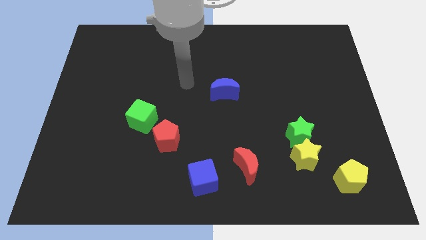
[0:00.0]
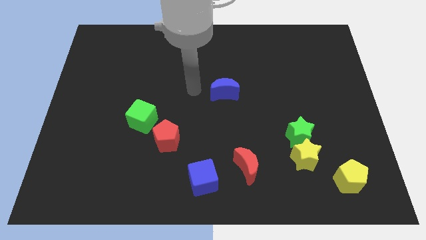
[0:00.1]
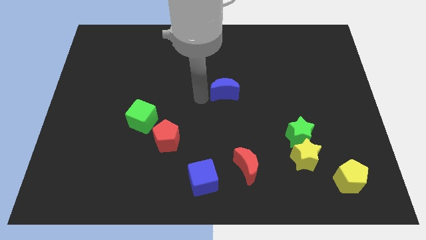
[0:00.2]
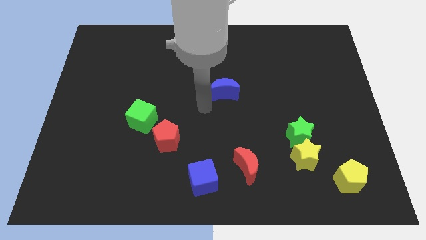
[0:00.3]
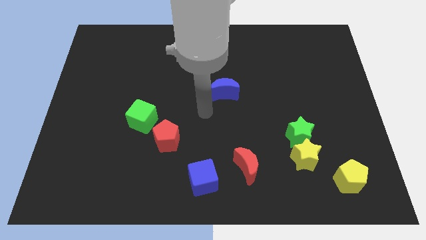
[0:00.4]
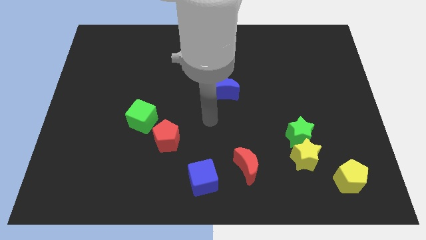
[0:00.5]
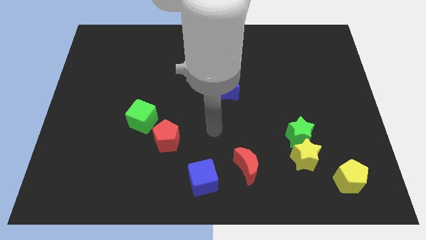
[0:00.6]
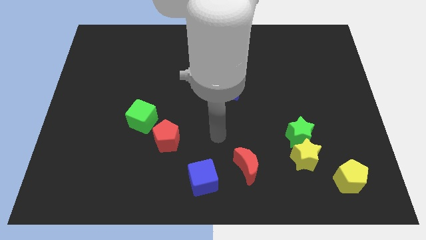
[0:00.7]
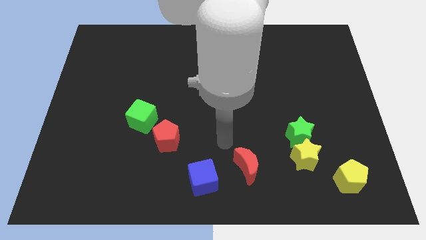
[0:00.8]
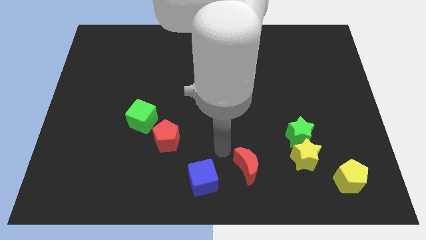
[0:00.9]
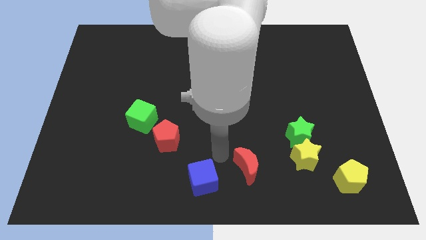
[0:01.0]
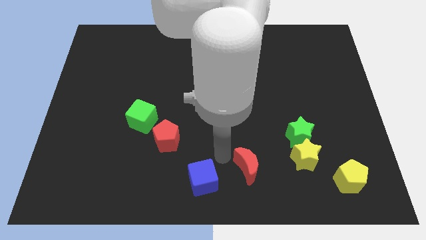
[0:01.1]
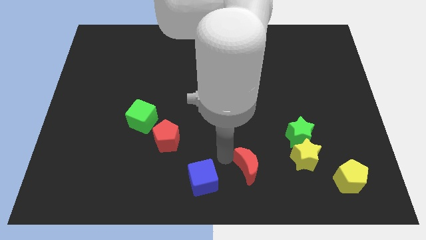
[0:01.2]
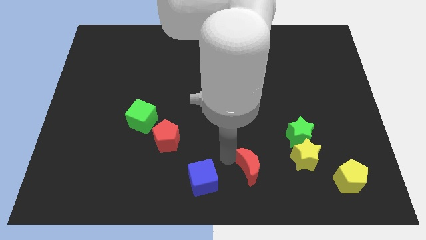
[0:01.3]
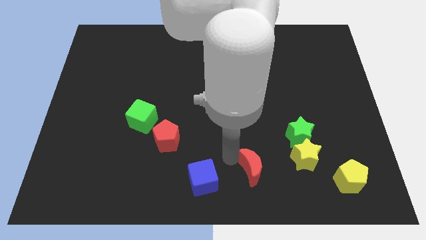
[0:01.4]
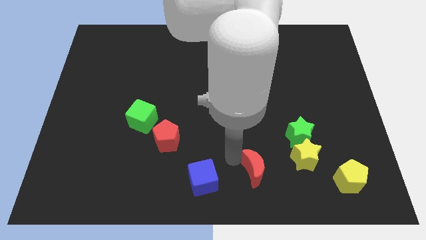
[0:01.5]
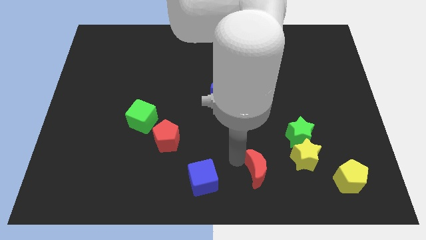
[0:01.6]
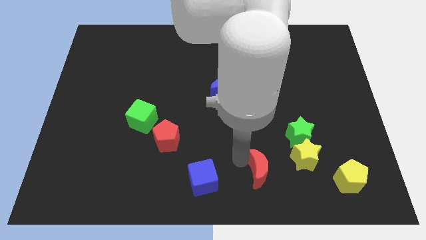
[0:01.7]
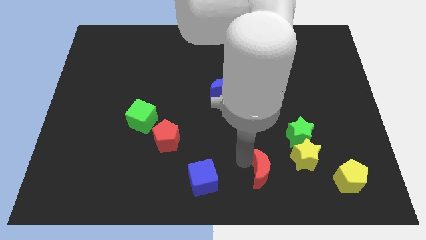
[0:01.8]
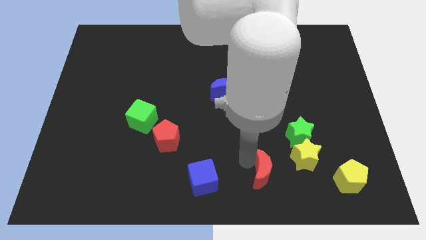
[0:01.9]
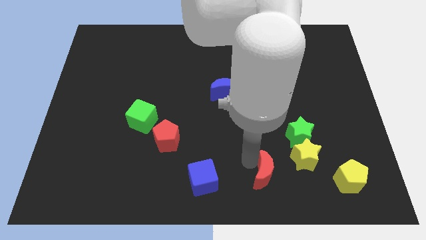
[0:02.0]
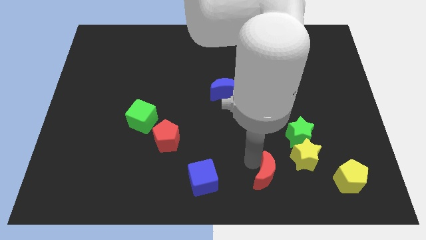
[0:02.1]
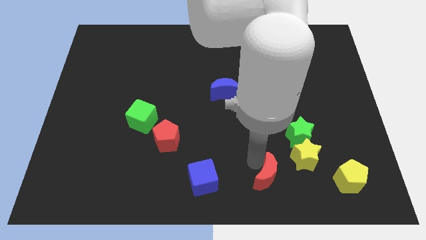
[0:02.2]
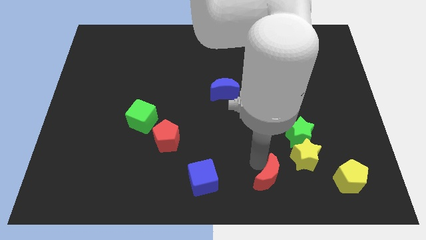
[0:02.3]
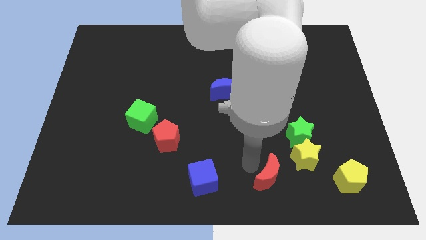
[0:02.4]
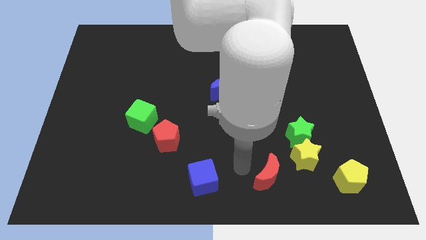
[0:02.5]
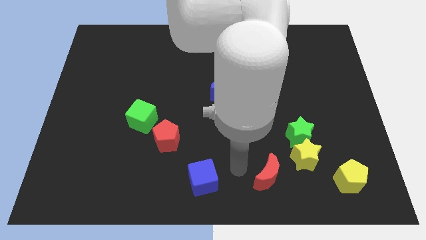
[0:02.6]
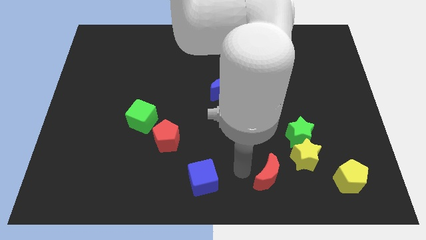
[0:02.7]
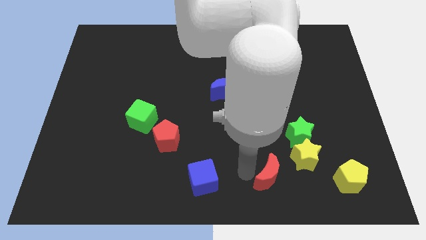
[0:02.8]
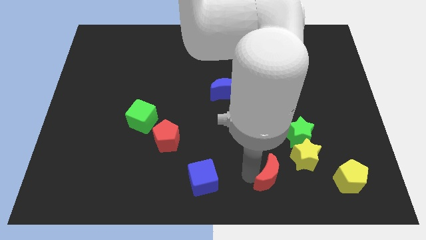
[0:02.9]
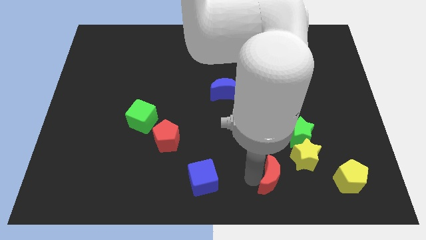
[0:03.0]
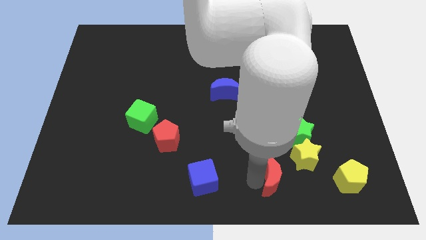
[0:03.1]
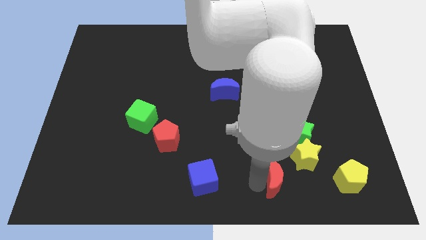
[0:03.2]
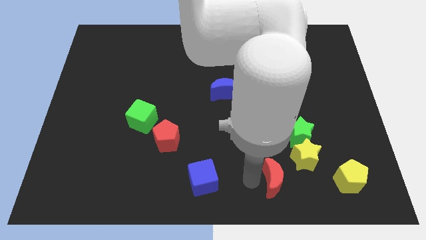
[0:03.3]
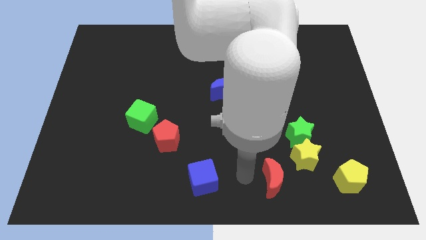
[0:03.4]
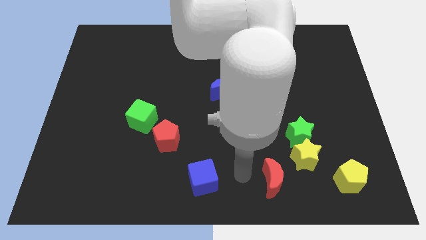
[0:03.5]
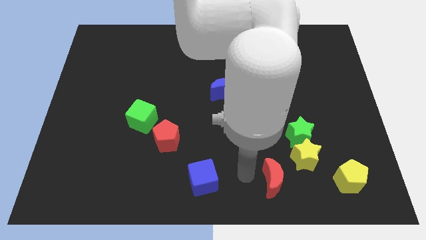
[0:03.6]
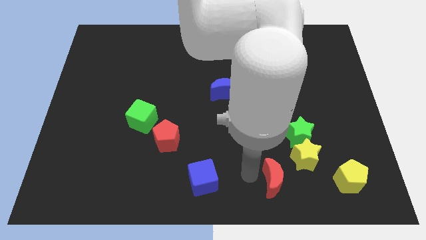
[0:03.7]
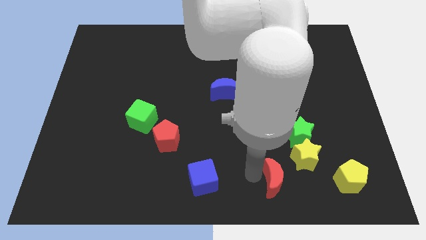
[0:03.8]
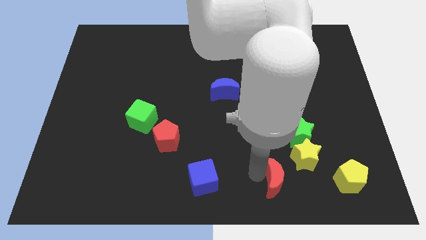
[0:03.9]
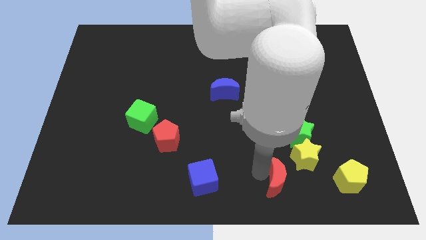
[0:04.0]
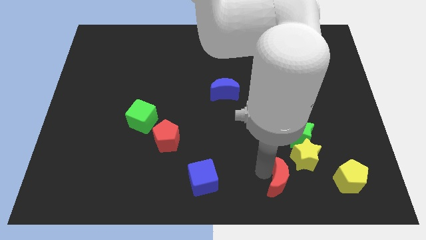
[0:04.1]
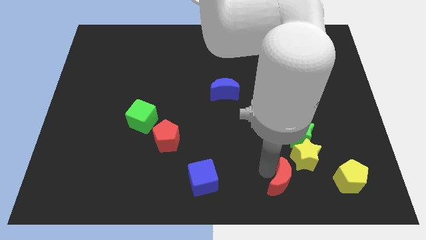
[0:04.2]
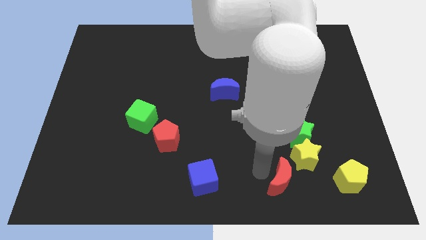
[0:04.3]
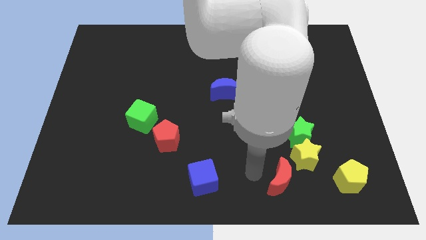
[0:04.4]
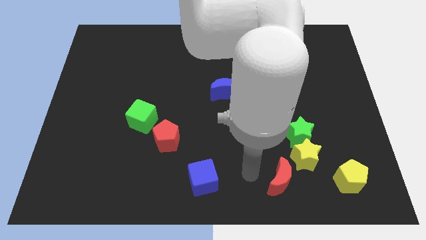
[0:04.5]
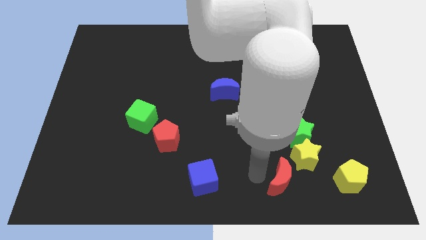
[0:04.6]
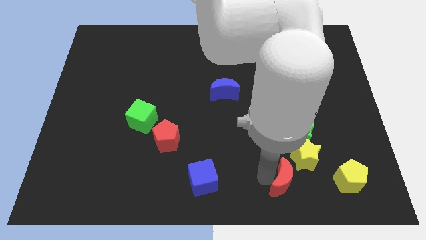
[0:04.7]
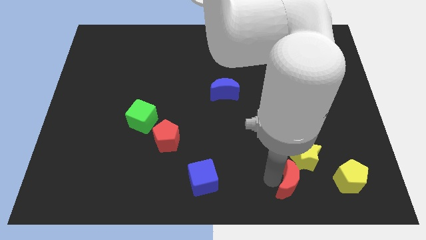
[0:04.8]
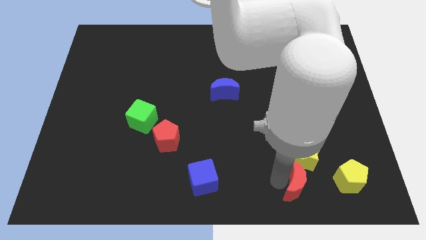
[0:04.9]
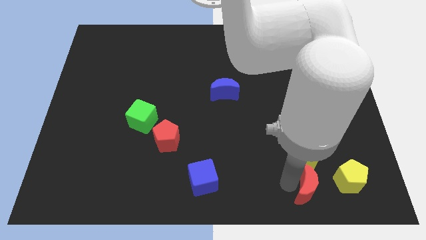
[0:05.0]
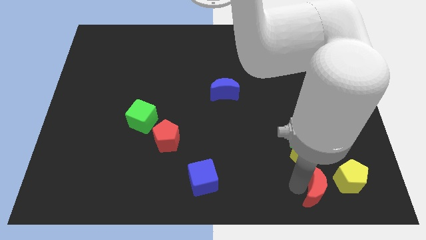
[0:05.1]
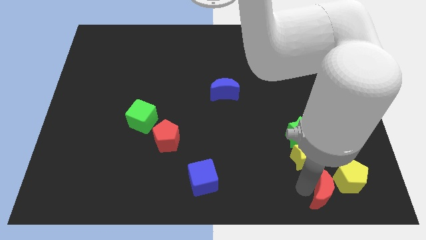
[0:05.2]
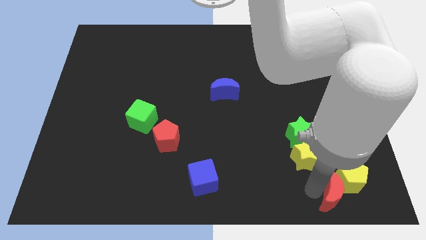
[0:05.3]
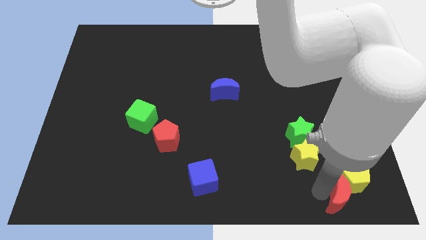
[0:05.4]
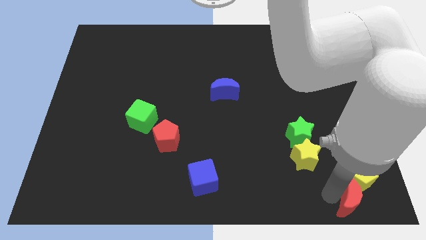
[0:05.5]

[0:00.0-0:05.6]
push the red moon to the lower right corner
